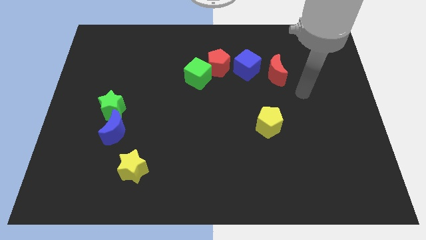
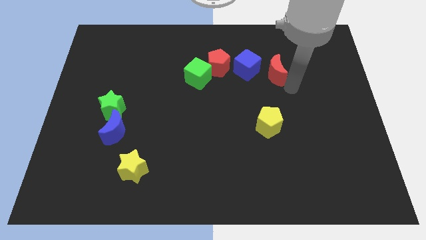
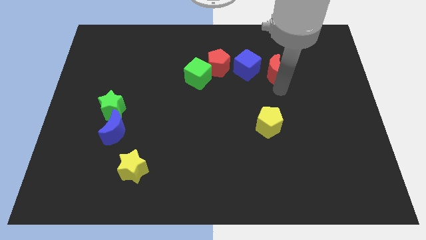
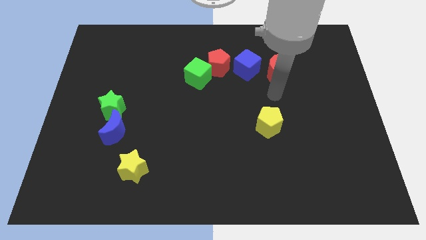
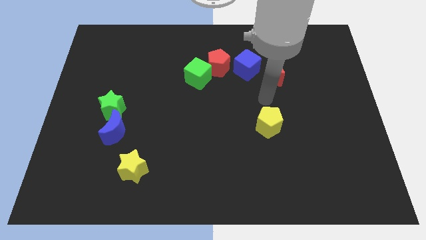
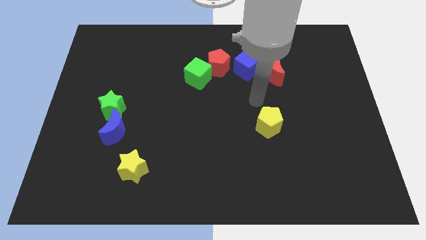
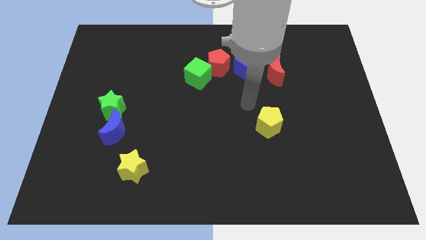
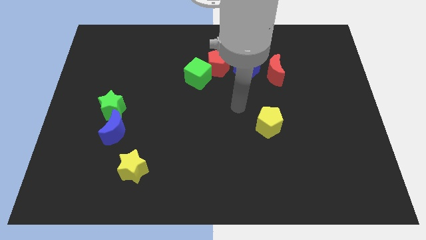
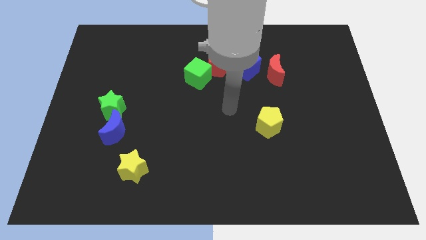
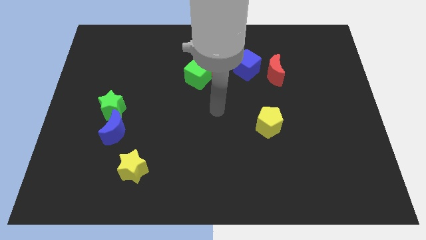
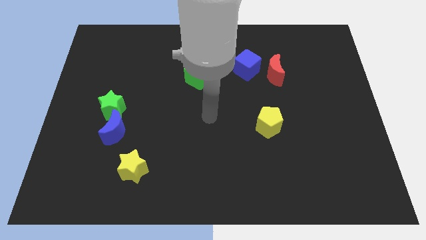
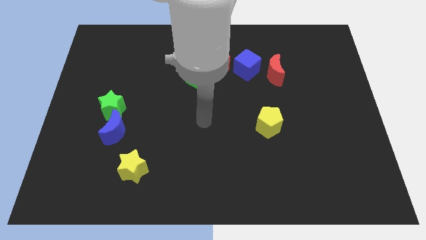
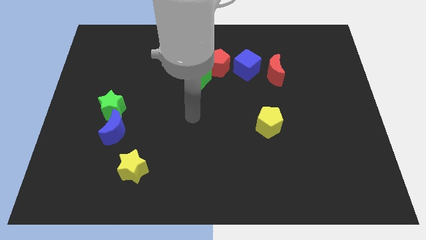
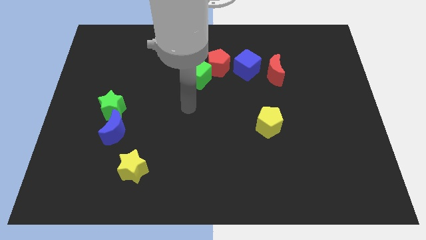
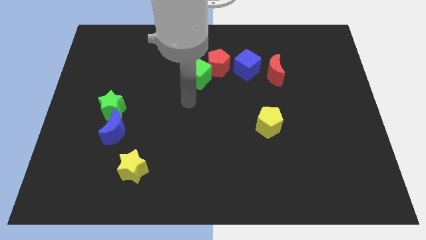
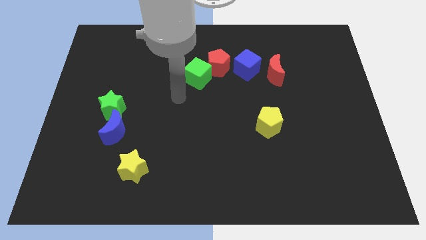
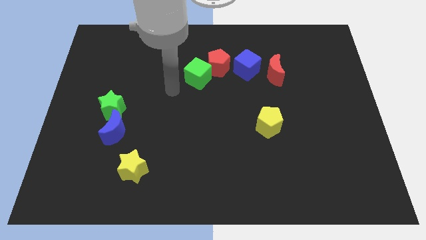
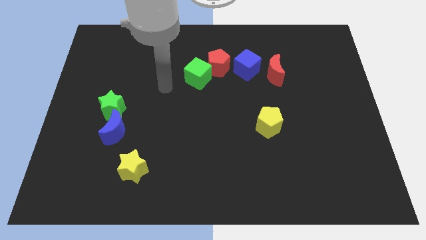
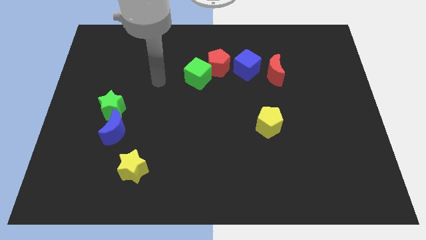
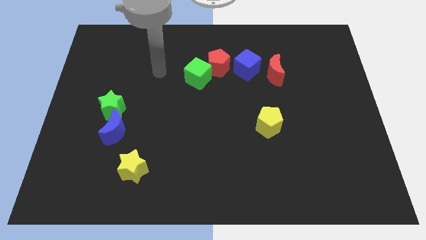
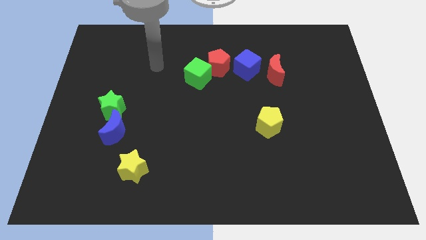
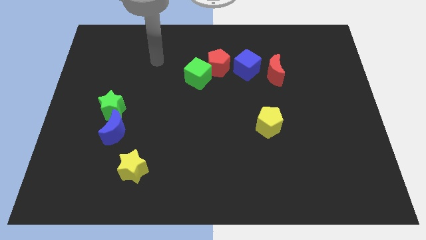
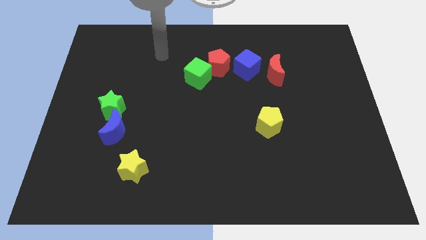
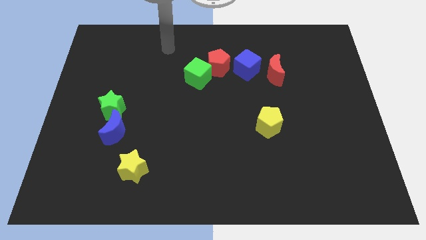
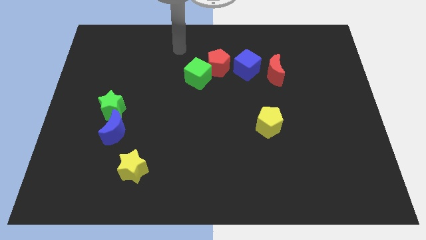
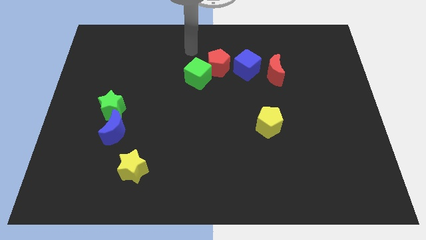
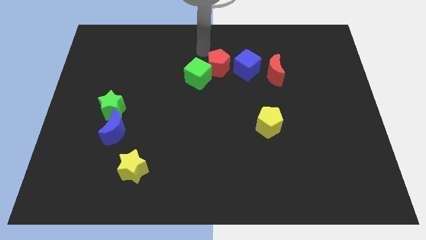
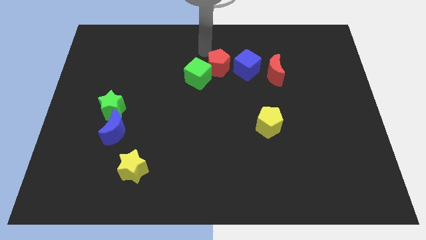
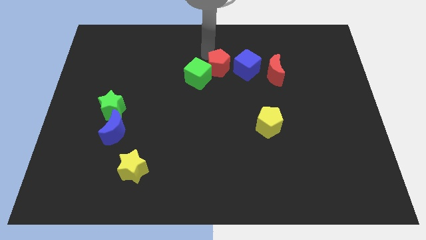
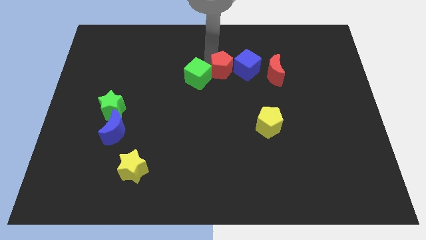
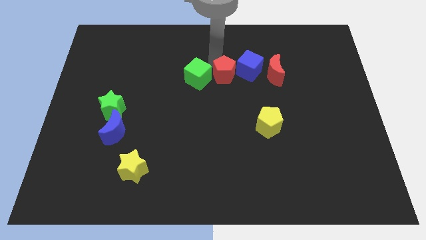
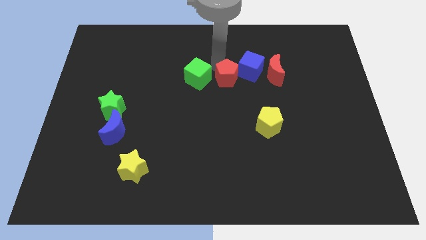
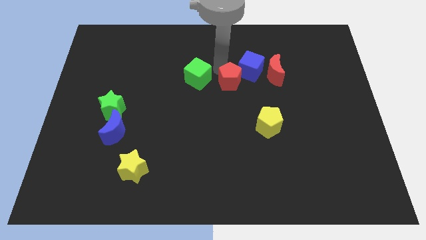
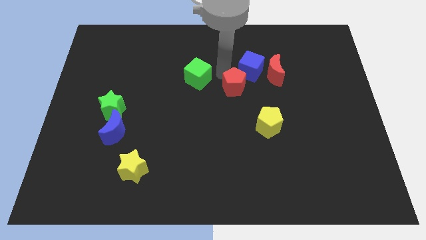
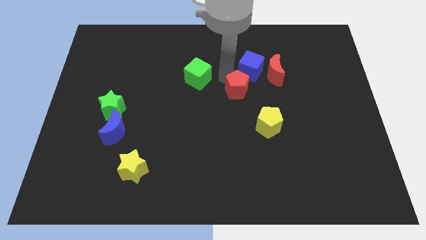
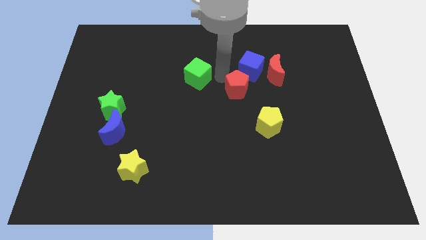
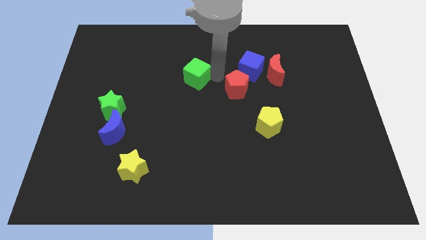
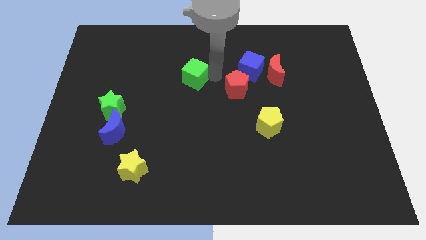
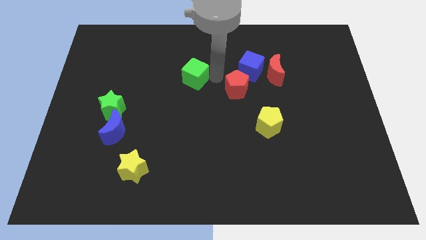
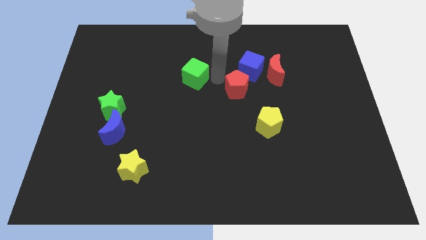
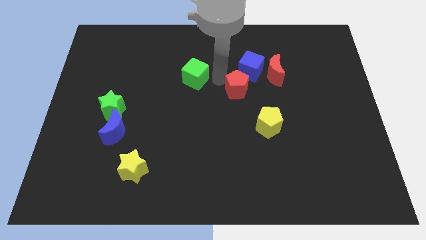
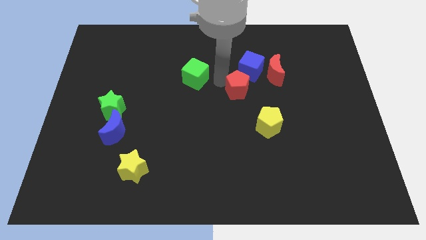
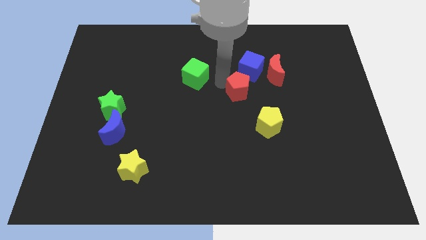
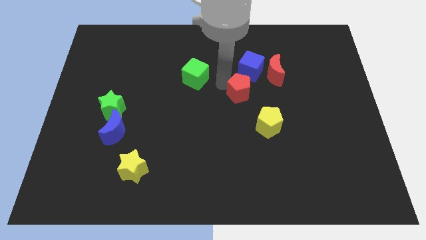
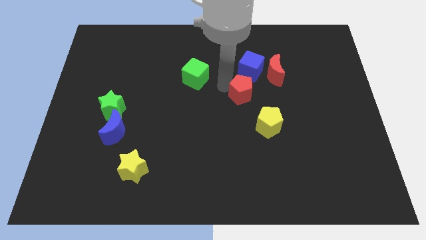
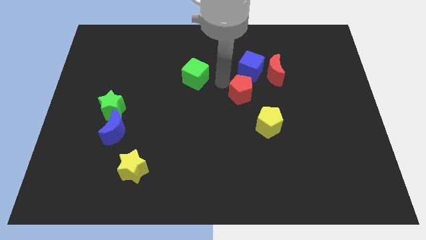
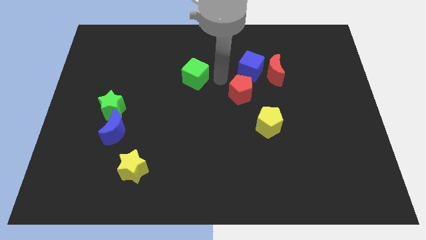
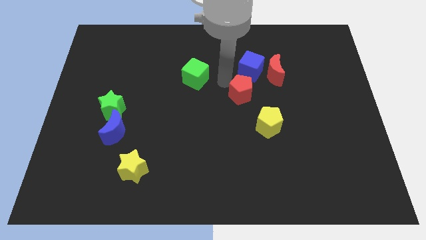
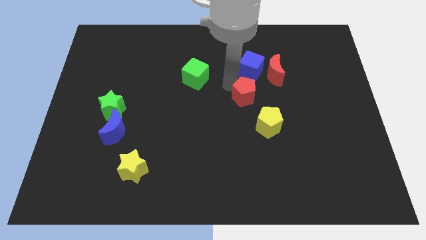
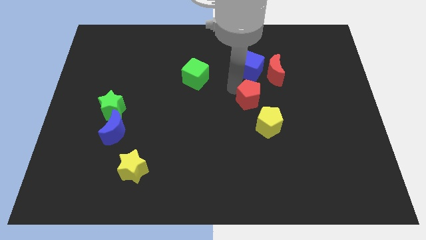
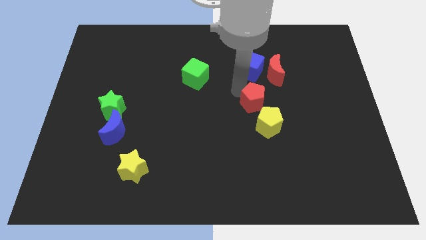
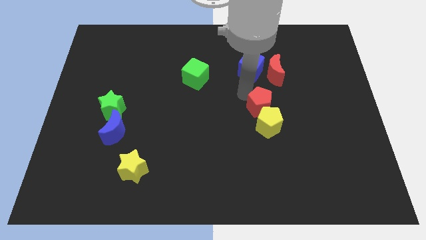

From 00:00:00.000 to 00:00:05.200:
push the red pentagon to the yellow pentagon
